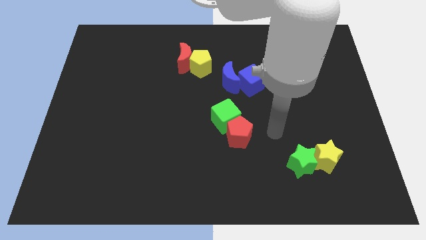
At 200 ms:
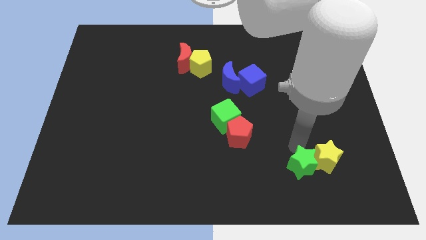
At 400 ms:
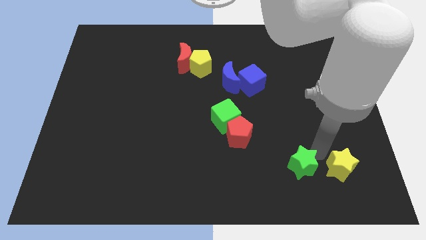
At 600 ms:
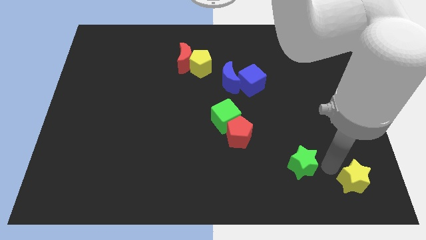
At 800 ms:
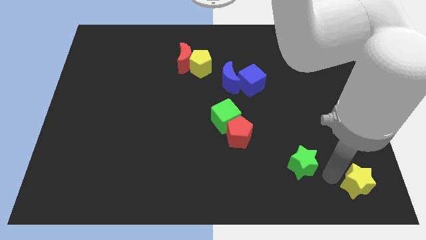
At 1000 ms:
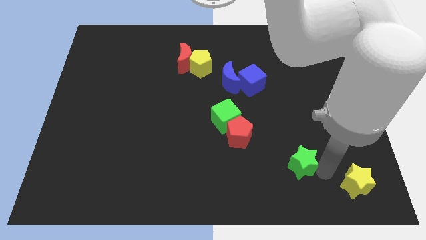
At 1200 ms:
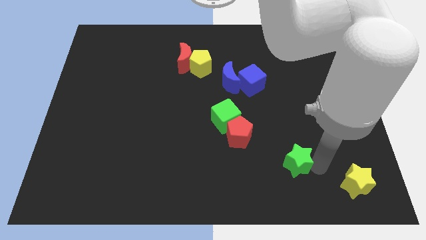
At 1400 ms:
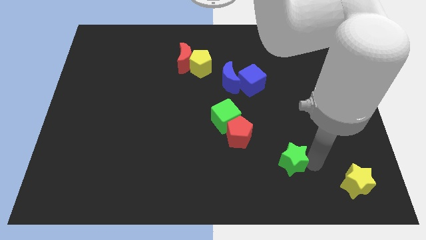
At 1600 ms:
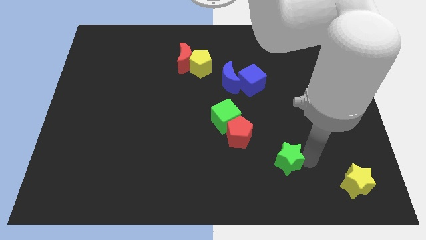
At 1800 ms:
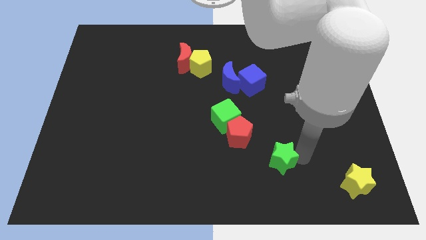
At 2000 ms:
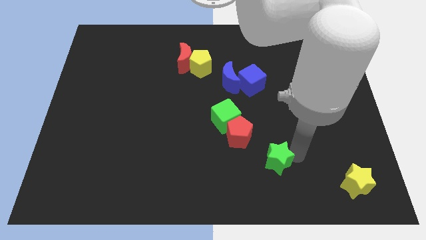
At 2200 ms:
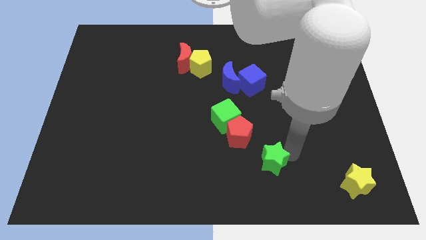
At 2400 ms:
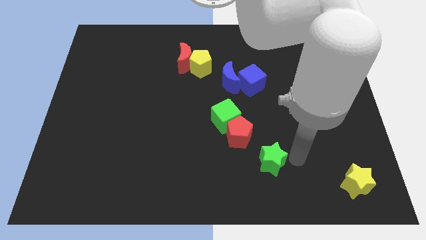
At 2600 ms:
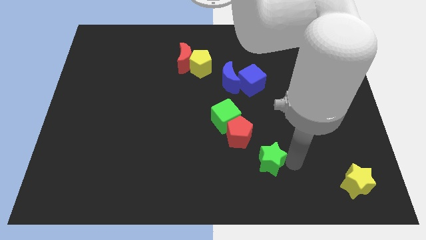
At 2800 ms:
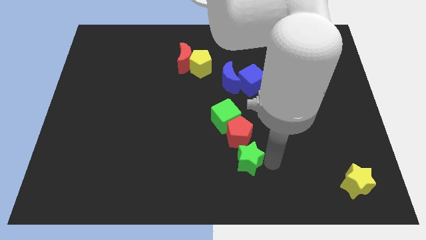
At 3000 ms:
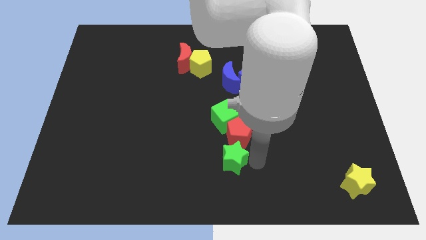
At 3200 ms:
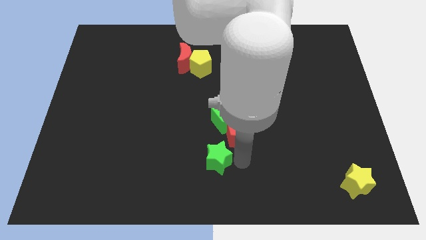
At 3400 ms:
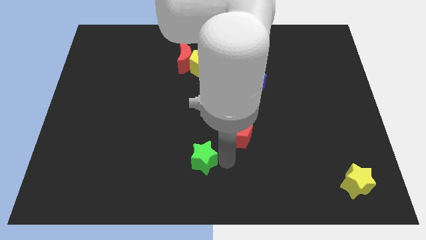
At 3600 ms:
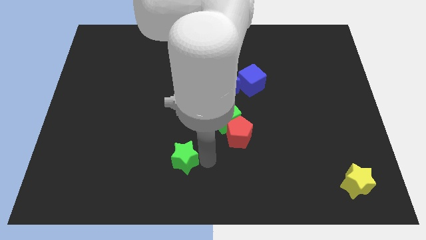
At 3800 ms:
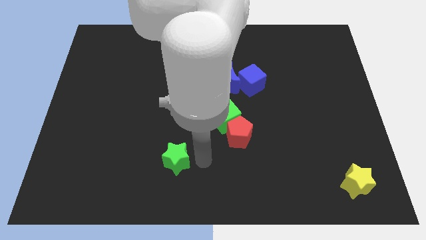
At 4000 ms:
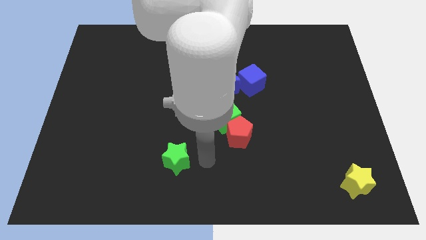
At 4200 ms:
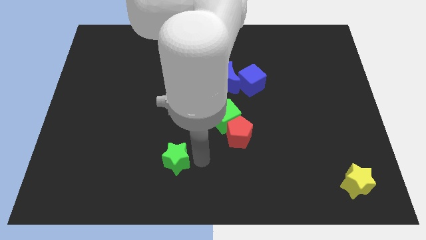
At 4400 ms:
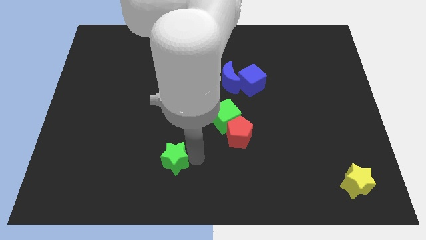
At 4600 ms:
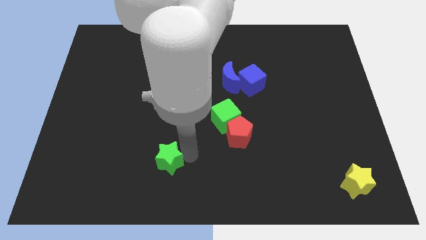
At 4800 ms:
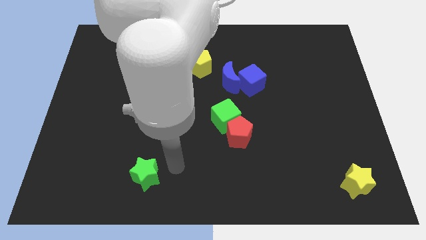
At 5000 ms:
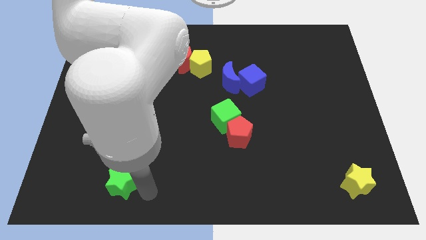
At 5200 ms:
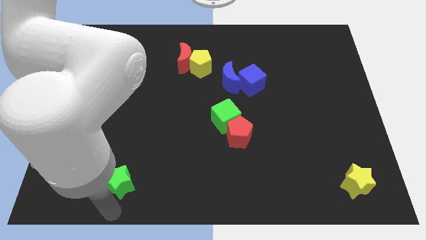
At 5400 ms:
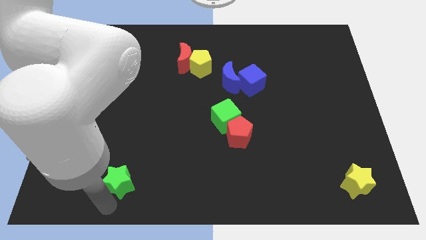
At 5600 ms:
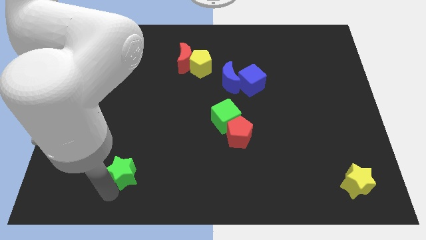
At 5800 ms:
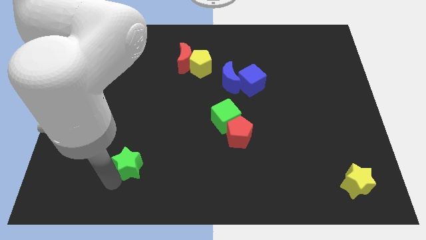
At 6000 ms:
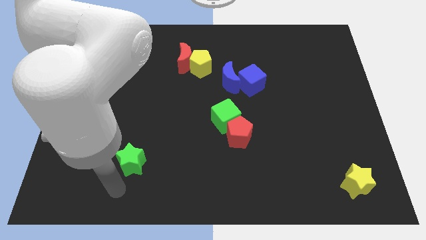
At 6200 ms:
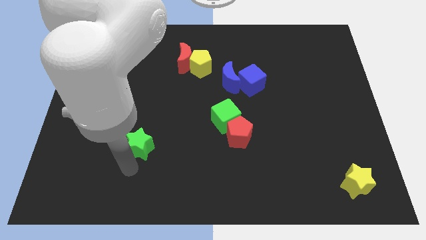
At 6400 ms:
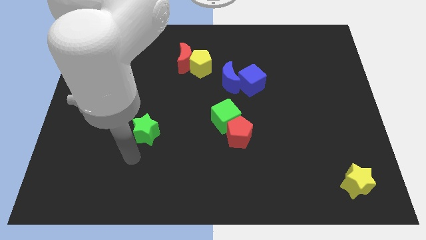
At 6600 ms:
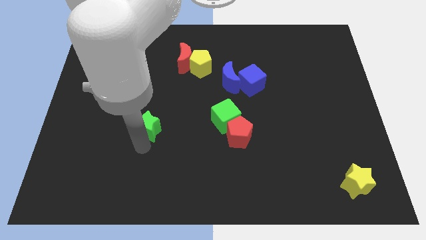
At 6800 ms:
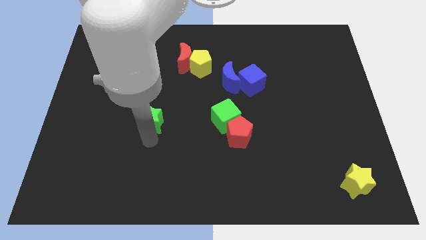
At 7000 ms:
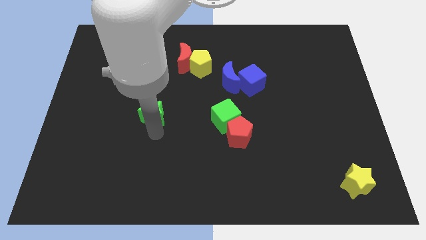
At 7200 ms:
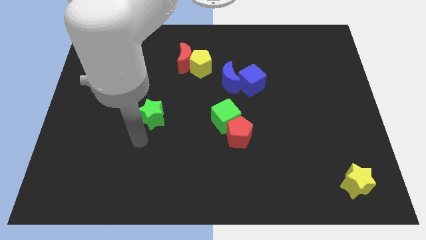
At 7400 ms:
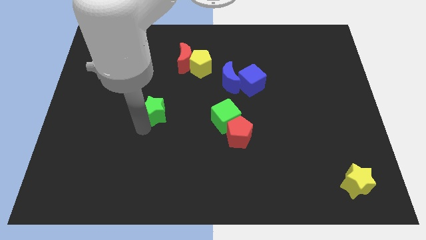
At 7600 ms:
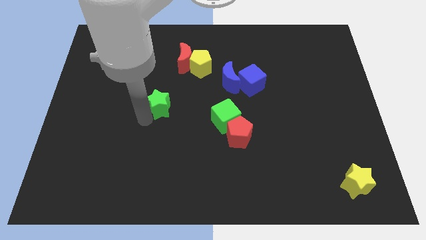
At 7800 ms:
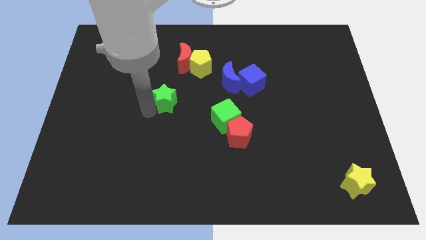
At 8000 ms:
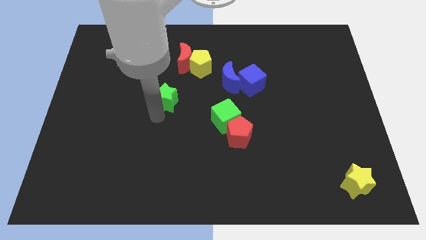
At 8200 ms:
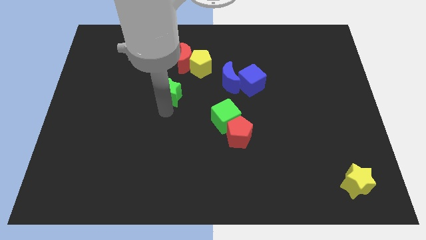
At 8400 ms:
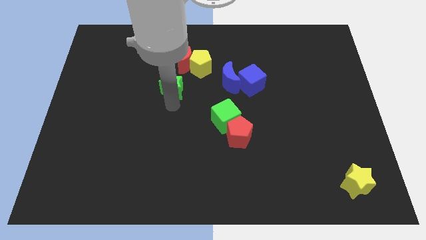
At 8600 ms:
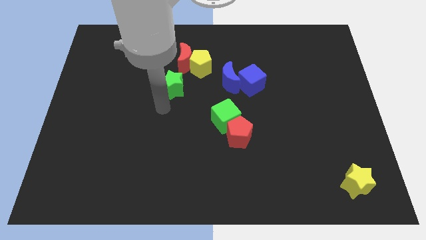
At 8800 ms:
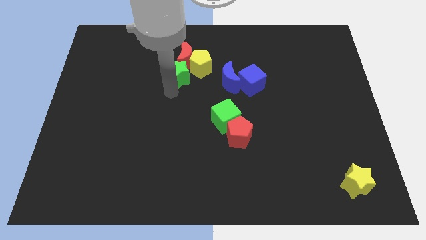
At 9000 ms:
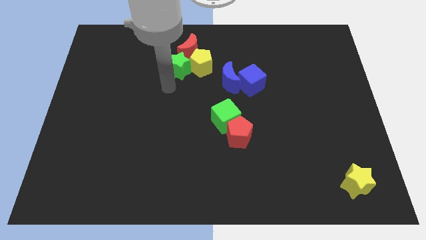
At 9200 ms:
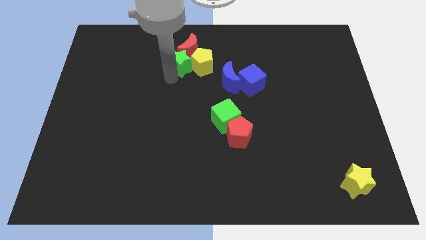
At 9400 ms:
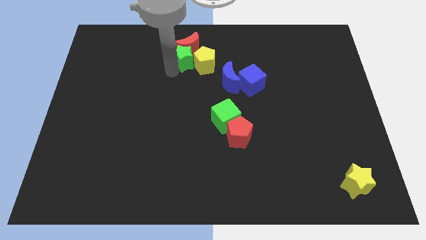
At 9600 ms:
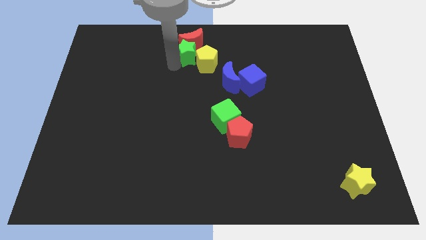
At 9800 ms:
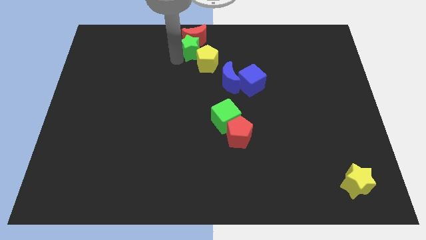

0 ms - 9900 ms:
move the green star to the towards your base

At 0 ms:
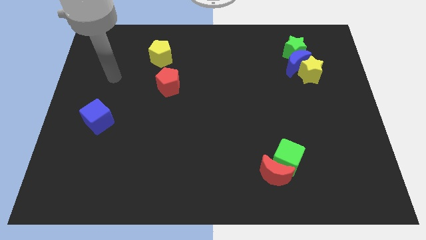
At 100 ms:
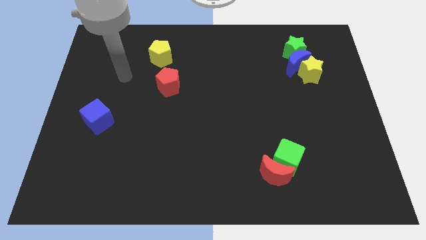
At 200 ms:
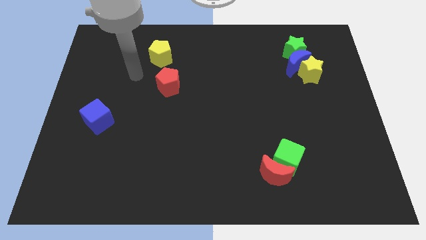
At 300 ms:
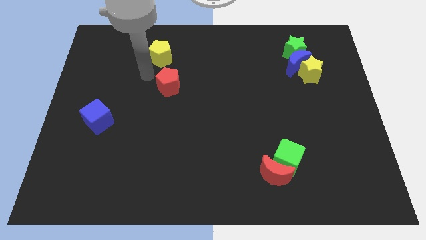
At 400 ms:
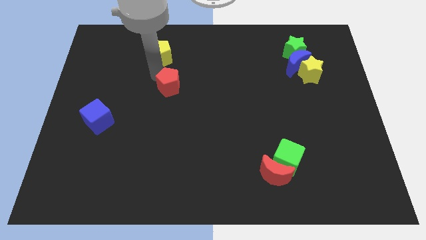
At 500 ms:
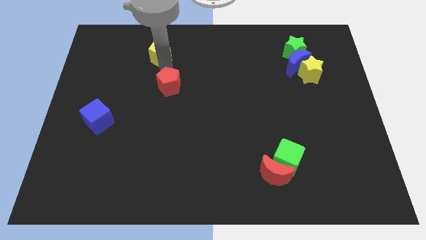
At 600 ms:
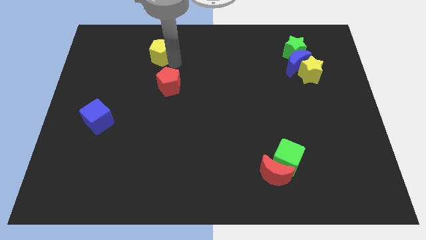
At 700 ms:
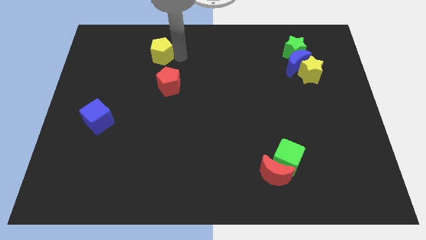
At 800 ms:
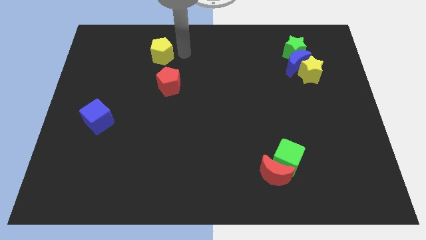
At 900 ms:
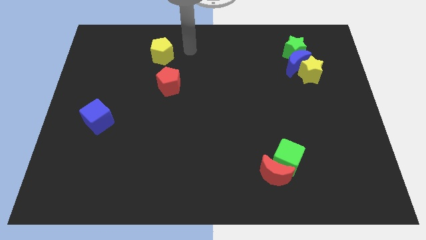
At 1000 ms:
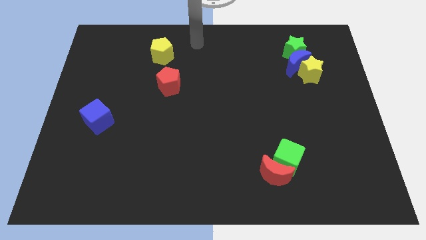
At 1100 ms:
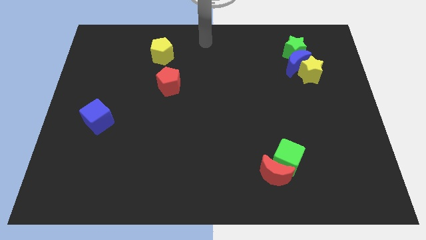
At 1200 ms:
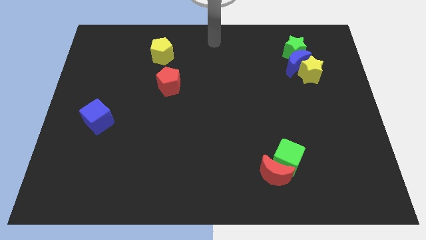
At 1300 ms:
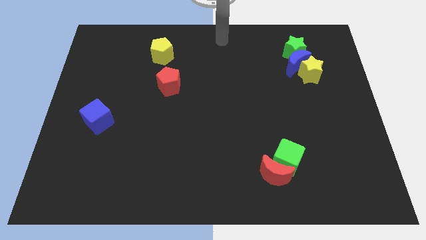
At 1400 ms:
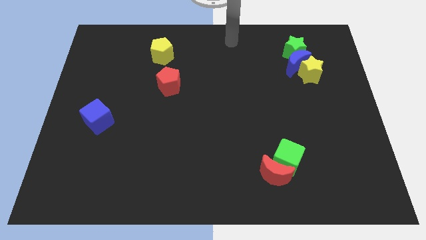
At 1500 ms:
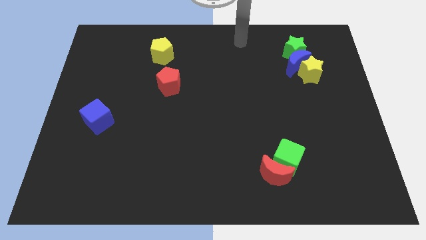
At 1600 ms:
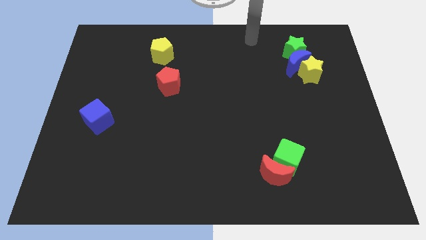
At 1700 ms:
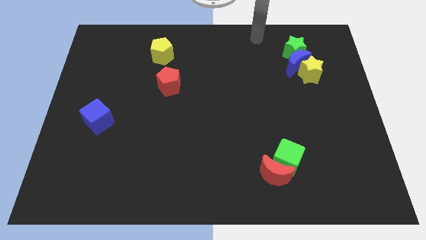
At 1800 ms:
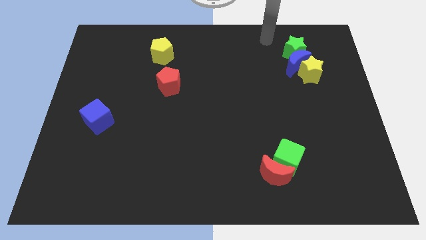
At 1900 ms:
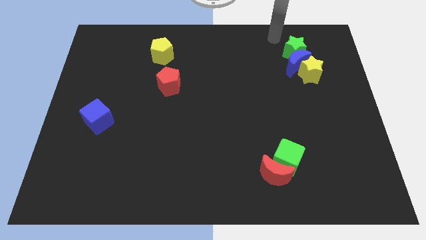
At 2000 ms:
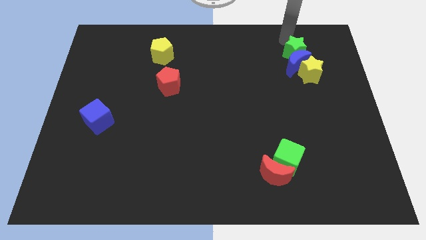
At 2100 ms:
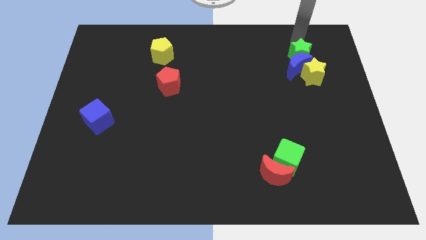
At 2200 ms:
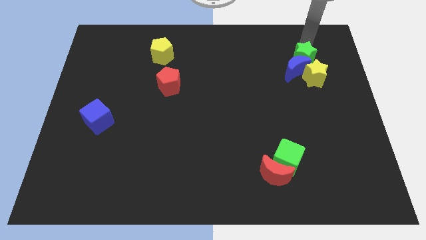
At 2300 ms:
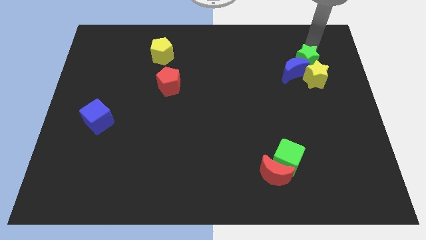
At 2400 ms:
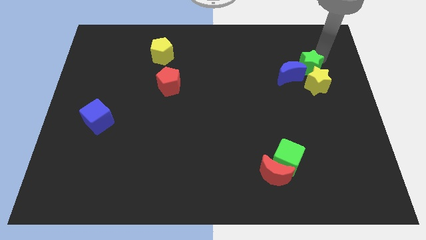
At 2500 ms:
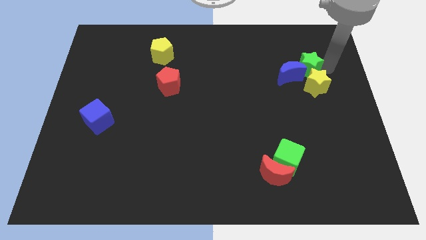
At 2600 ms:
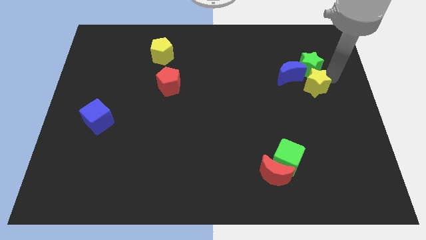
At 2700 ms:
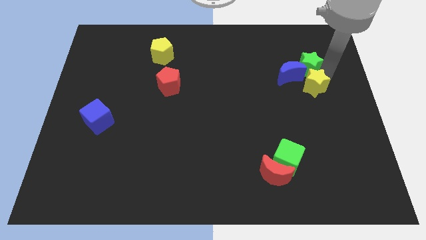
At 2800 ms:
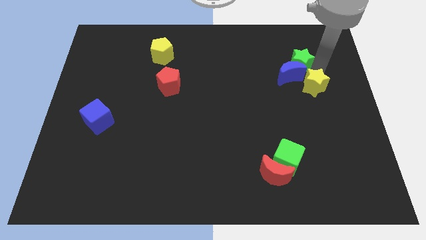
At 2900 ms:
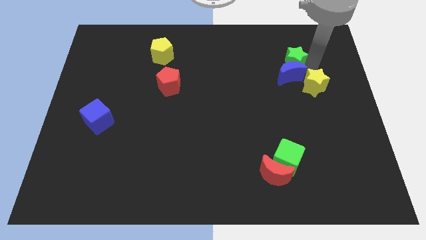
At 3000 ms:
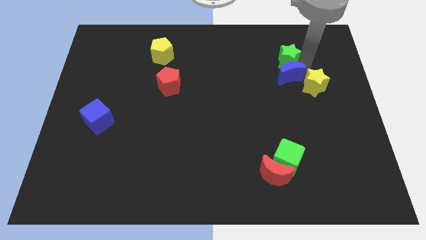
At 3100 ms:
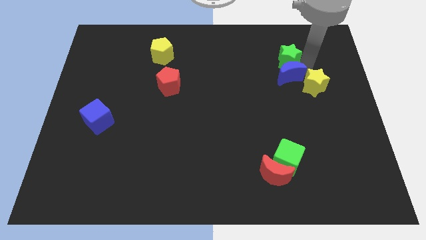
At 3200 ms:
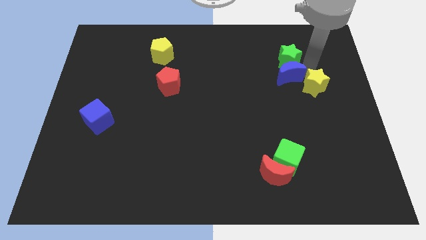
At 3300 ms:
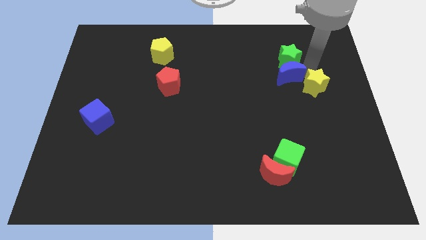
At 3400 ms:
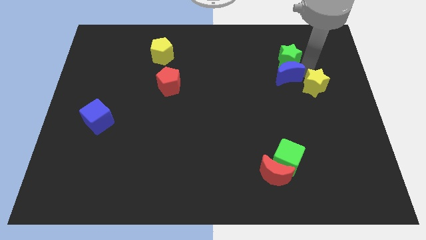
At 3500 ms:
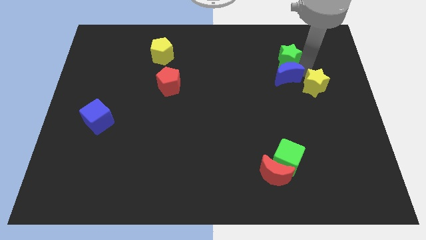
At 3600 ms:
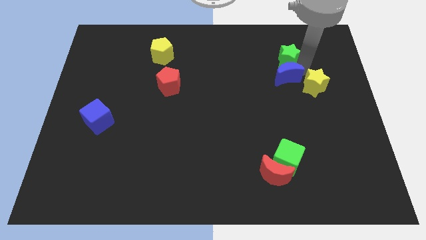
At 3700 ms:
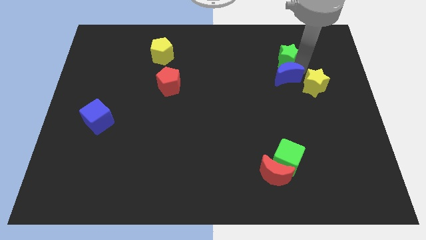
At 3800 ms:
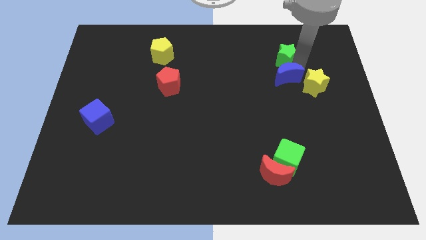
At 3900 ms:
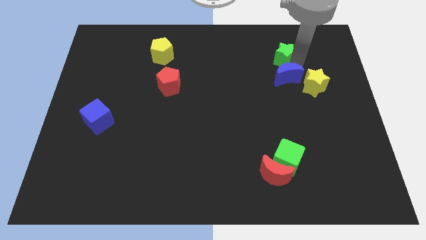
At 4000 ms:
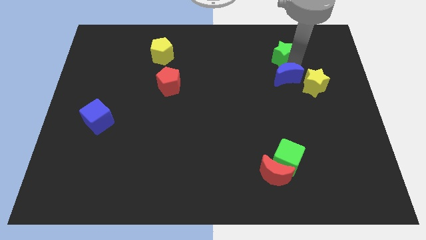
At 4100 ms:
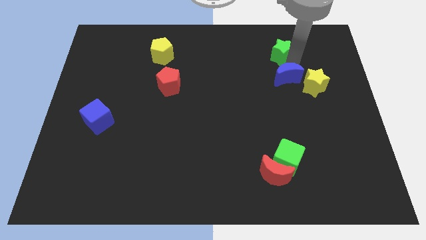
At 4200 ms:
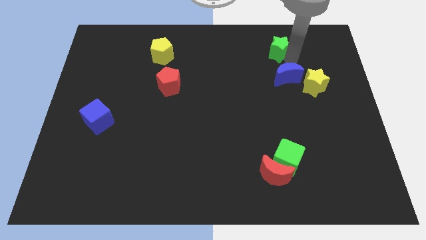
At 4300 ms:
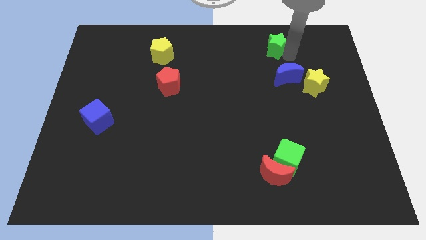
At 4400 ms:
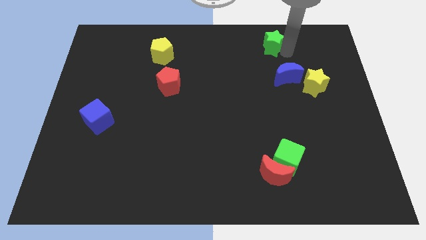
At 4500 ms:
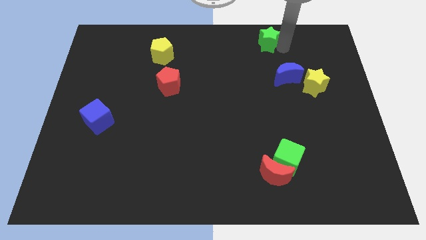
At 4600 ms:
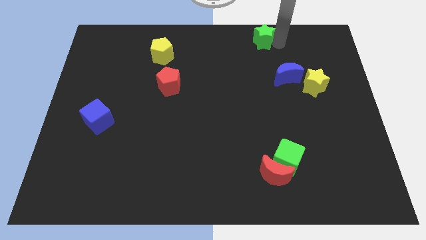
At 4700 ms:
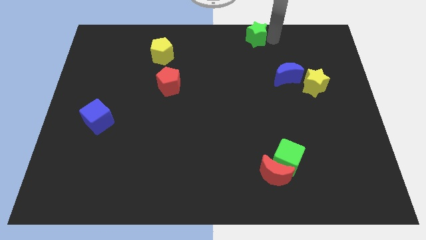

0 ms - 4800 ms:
move the green star to the top side
